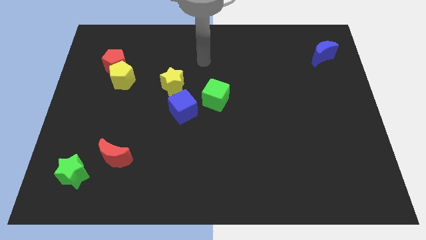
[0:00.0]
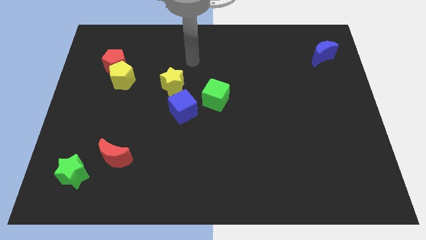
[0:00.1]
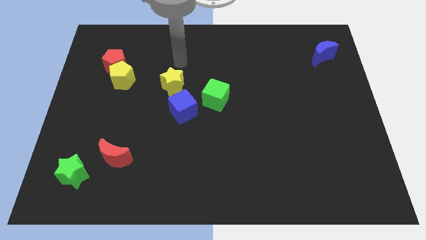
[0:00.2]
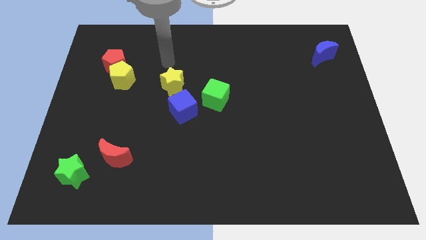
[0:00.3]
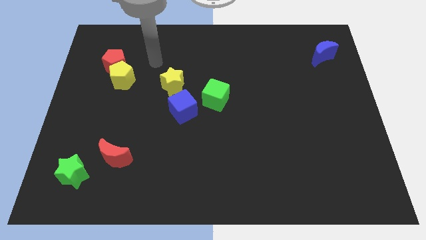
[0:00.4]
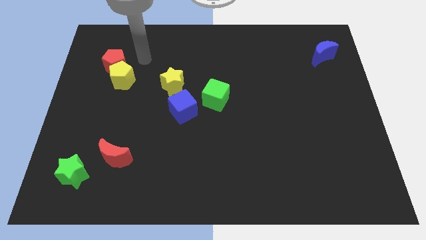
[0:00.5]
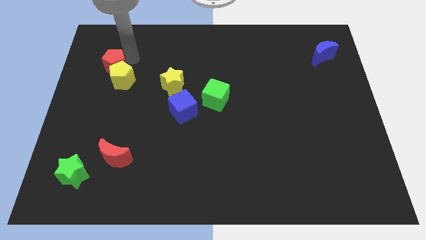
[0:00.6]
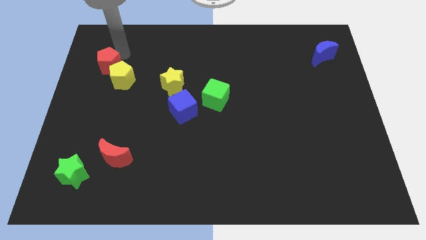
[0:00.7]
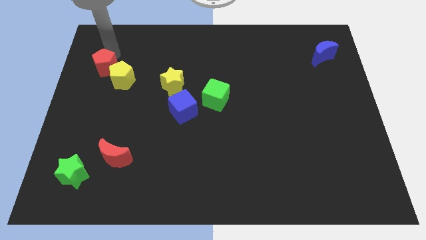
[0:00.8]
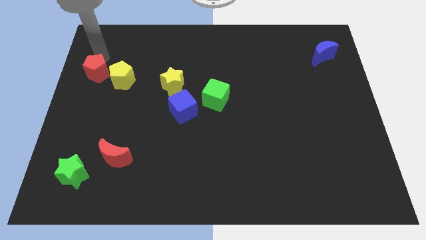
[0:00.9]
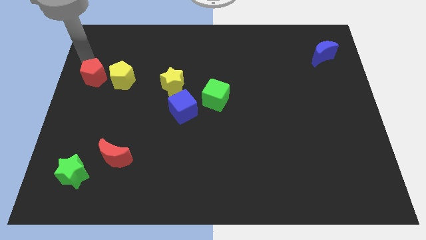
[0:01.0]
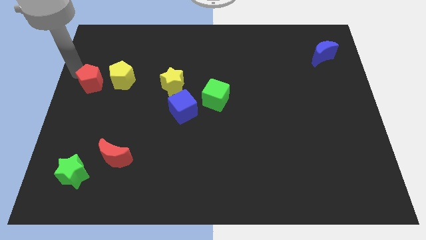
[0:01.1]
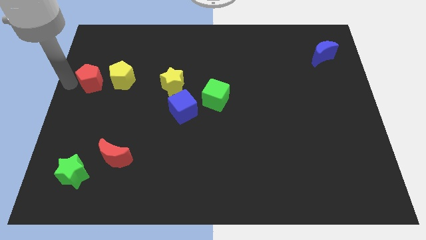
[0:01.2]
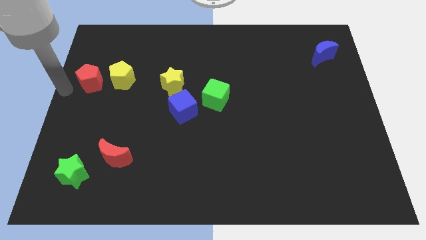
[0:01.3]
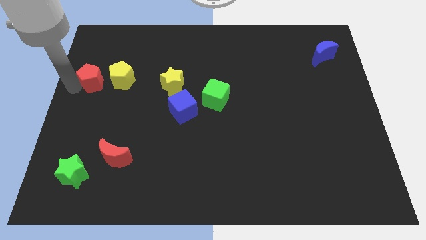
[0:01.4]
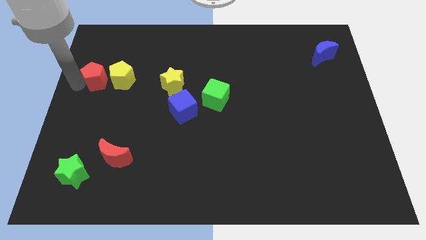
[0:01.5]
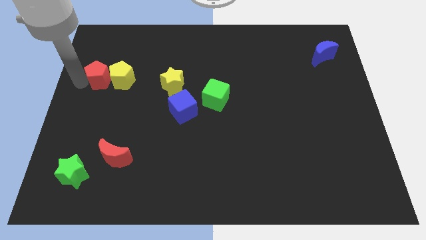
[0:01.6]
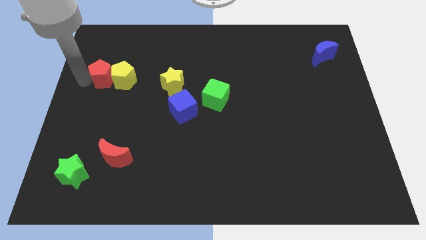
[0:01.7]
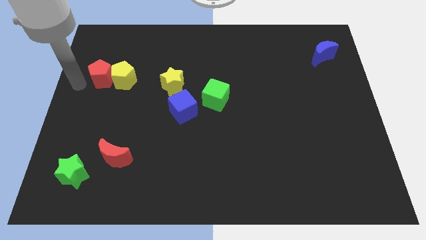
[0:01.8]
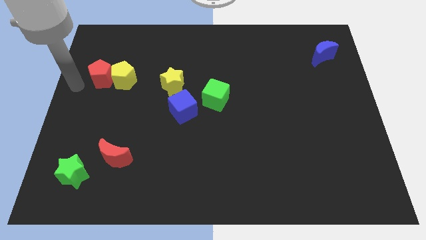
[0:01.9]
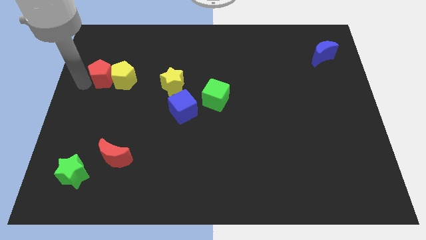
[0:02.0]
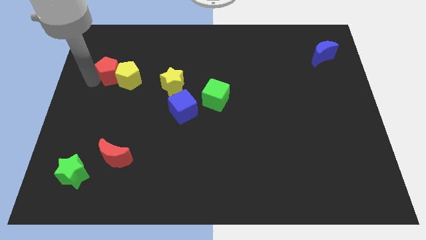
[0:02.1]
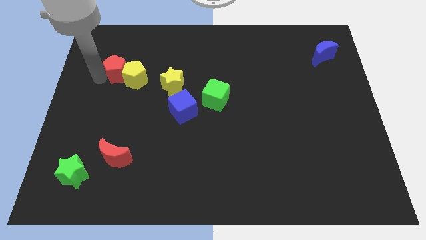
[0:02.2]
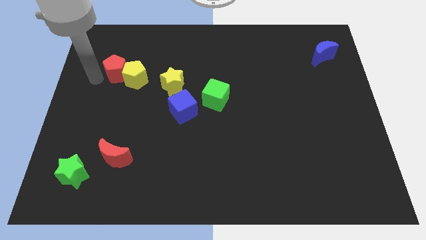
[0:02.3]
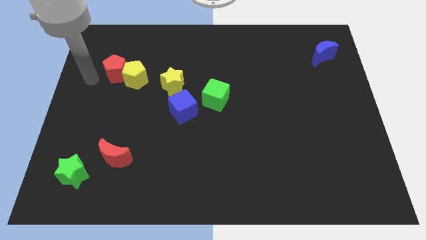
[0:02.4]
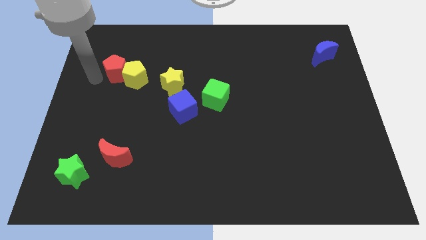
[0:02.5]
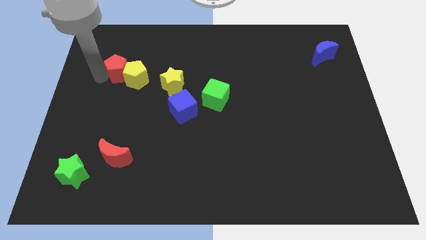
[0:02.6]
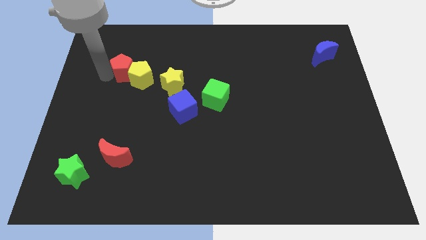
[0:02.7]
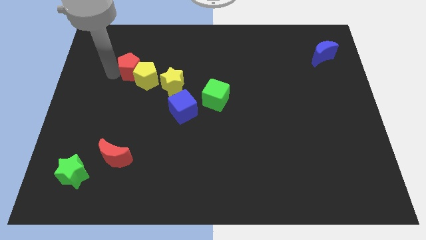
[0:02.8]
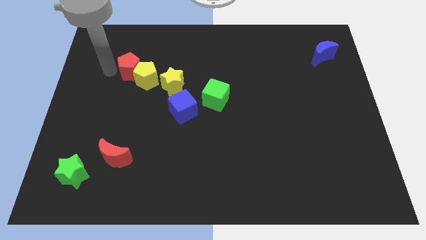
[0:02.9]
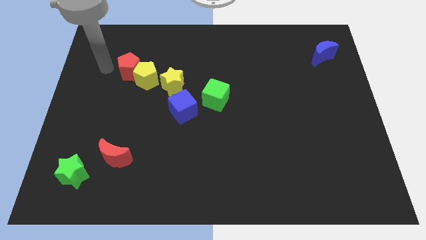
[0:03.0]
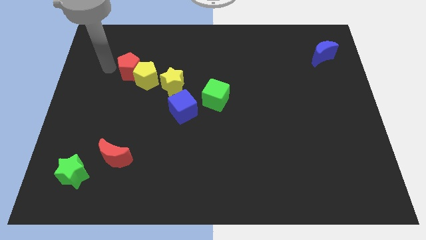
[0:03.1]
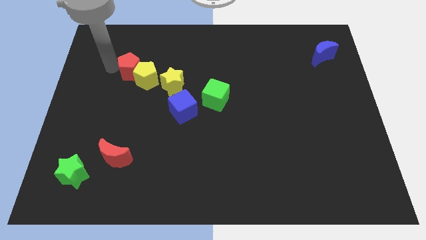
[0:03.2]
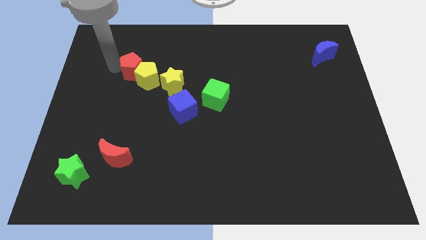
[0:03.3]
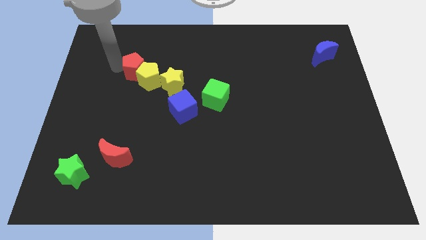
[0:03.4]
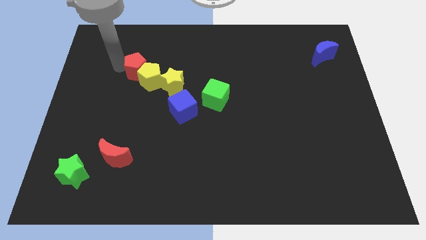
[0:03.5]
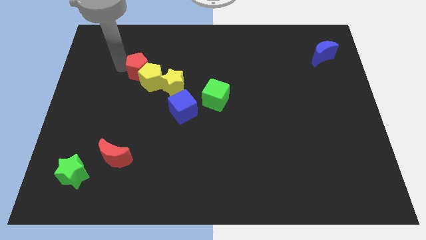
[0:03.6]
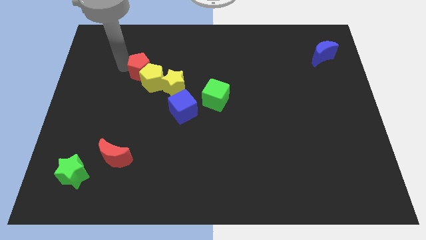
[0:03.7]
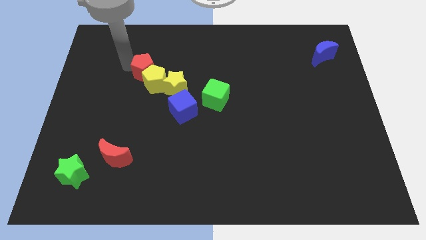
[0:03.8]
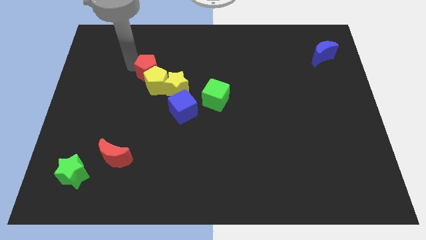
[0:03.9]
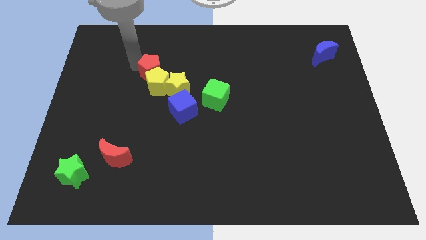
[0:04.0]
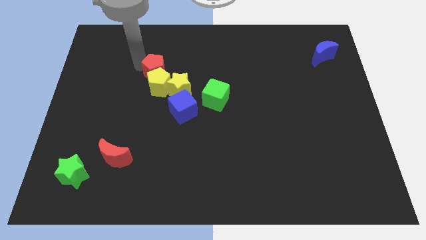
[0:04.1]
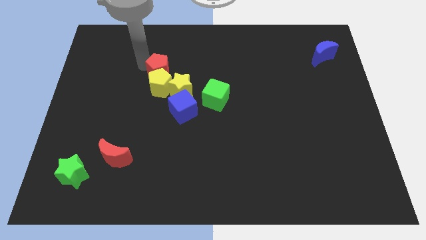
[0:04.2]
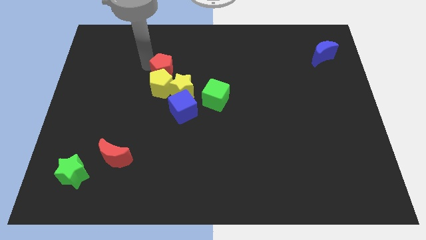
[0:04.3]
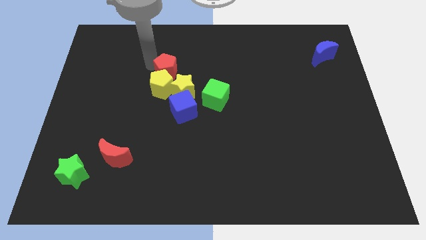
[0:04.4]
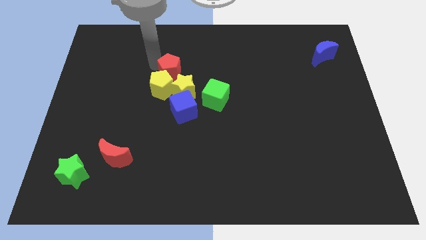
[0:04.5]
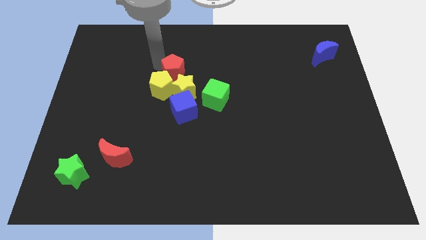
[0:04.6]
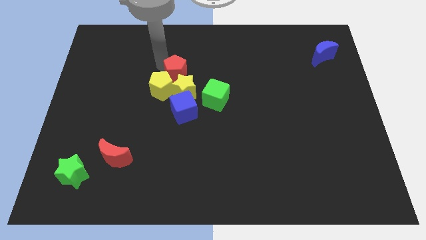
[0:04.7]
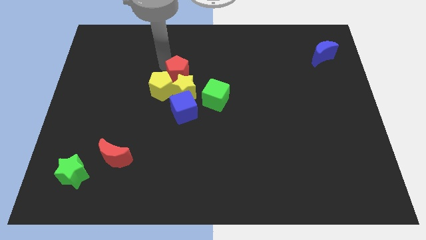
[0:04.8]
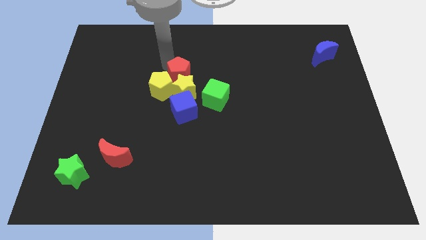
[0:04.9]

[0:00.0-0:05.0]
push the red pentagon next to the yellow star

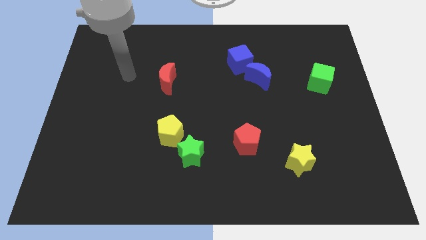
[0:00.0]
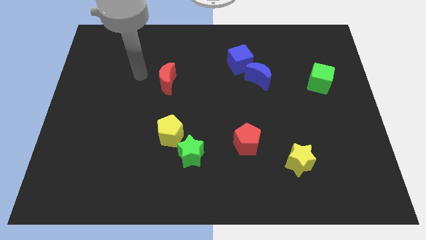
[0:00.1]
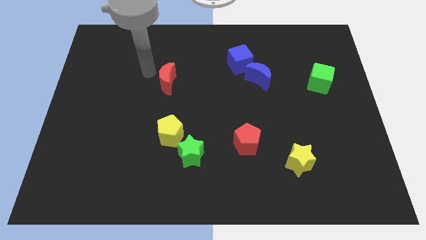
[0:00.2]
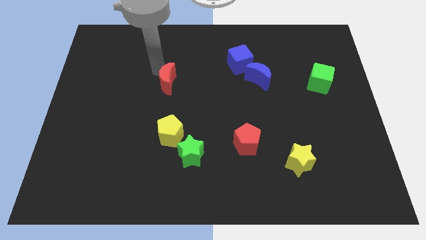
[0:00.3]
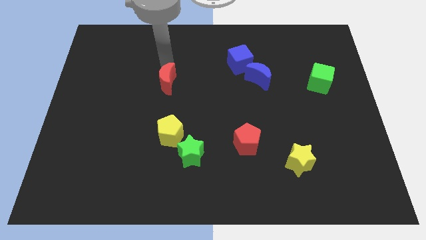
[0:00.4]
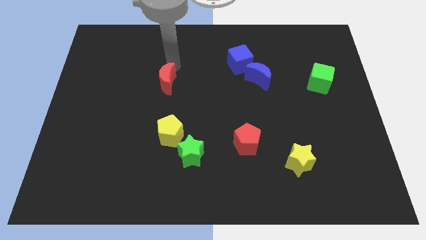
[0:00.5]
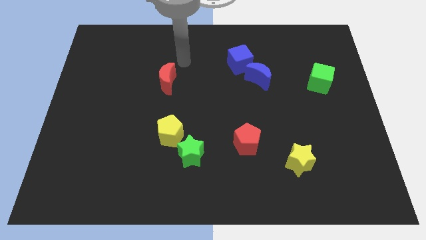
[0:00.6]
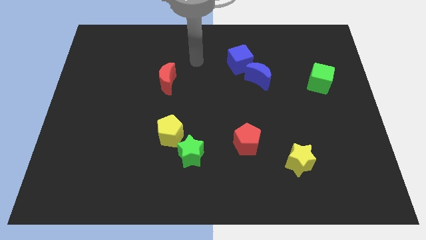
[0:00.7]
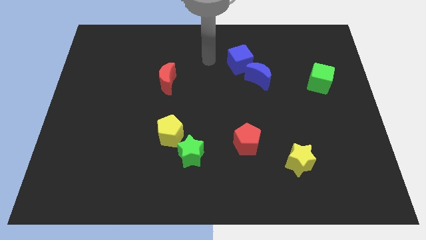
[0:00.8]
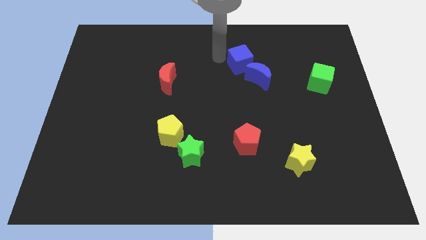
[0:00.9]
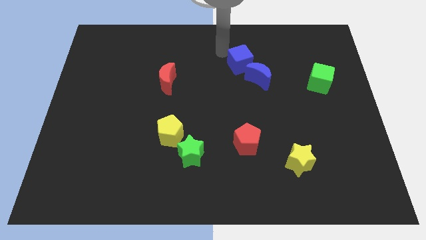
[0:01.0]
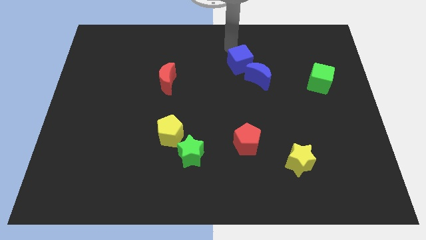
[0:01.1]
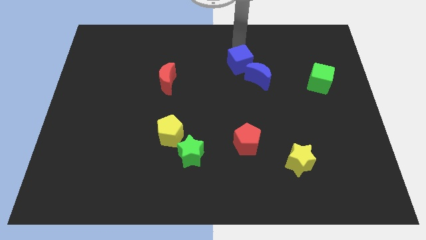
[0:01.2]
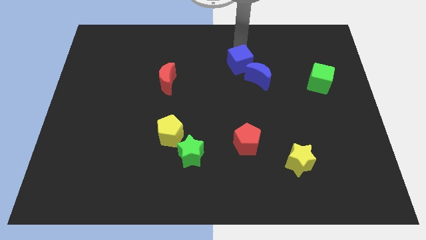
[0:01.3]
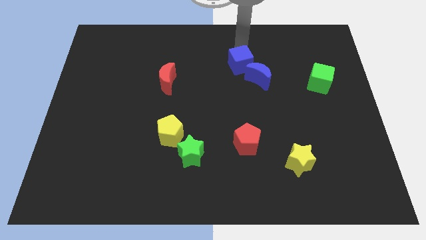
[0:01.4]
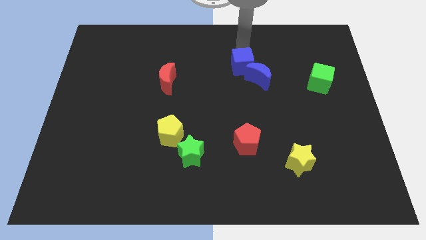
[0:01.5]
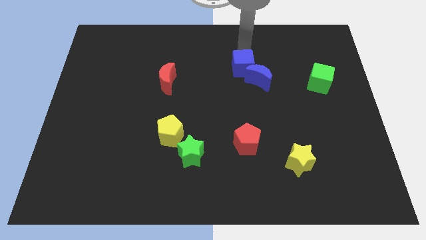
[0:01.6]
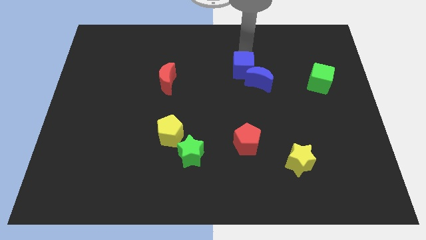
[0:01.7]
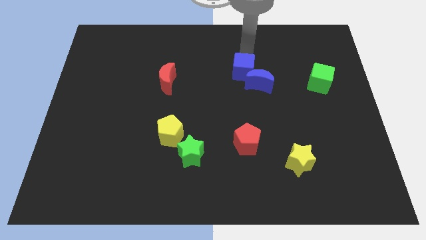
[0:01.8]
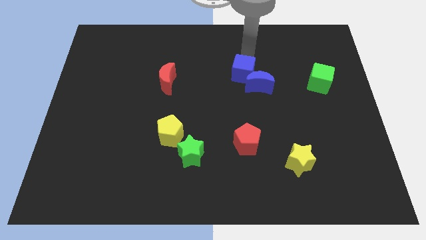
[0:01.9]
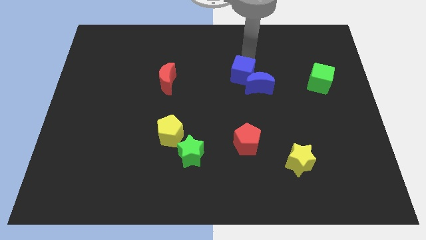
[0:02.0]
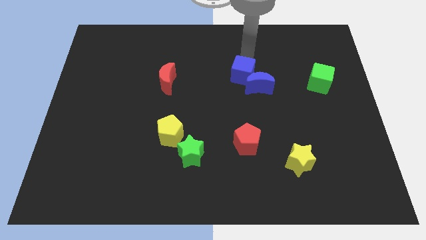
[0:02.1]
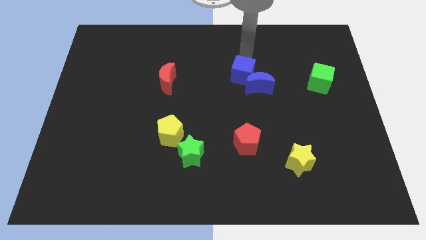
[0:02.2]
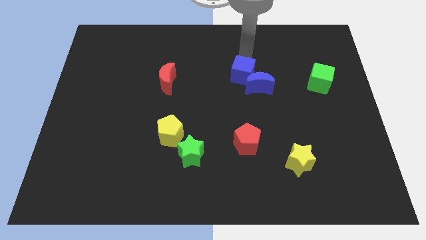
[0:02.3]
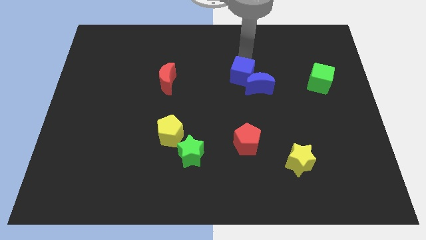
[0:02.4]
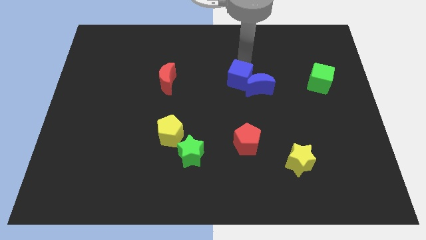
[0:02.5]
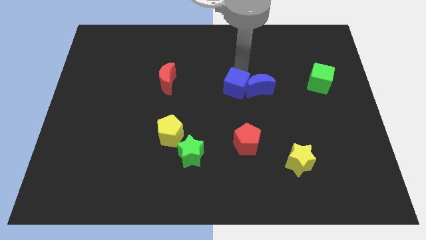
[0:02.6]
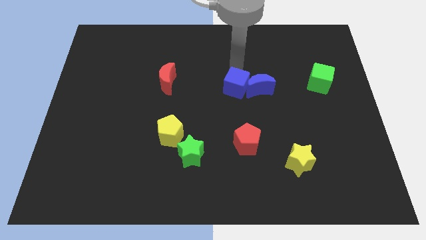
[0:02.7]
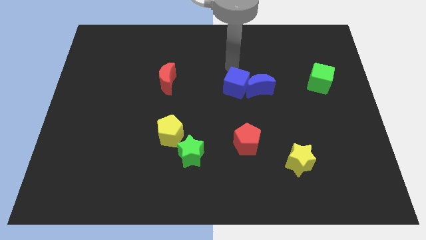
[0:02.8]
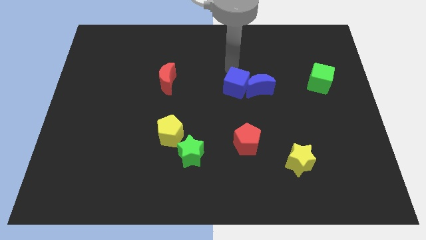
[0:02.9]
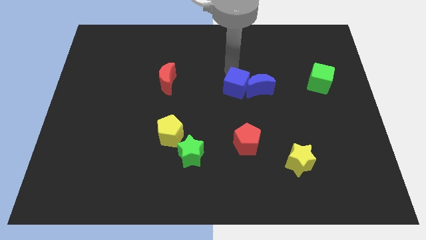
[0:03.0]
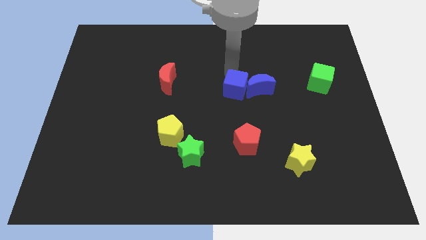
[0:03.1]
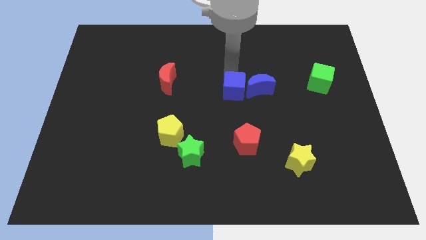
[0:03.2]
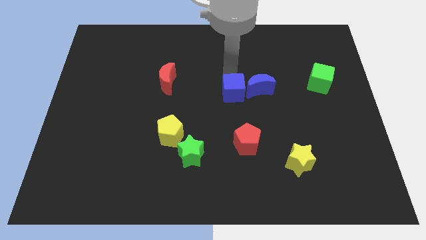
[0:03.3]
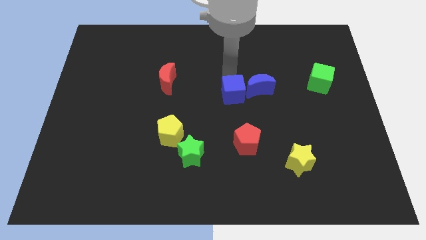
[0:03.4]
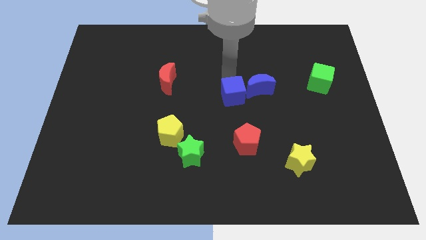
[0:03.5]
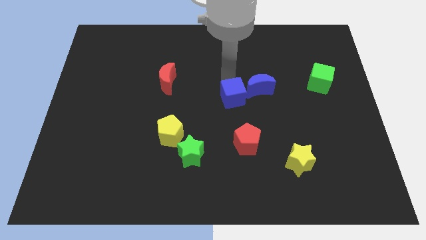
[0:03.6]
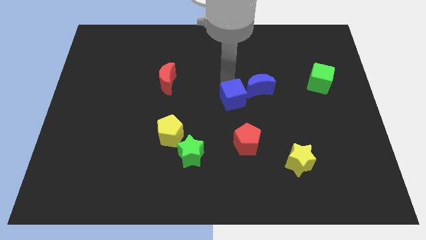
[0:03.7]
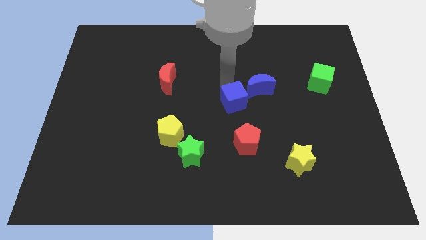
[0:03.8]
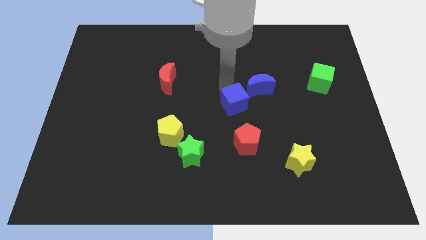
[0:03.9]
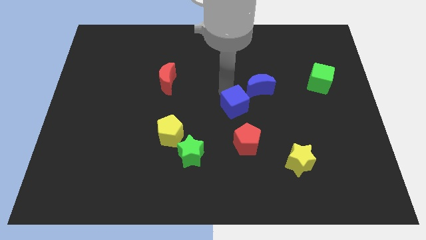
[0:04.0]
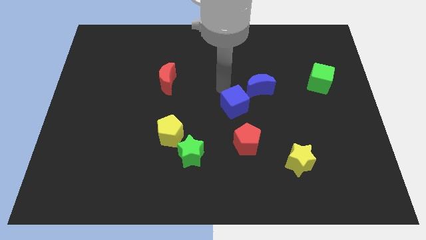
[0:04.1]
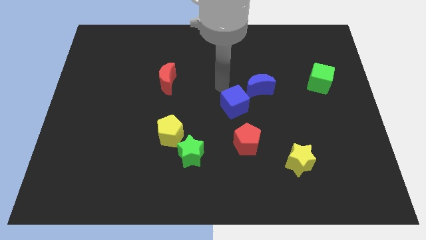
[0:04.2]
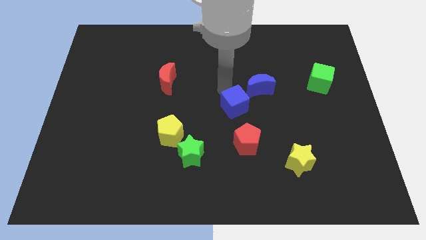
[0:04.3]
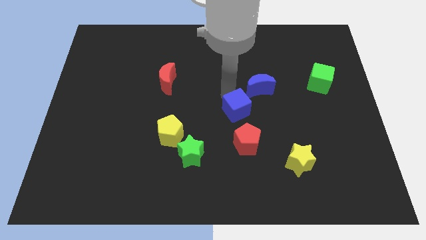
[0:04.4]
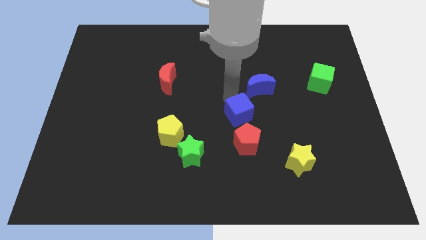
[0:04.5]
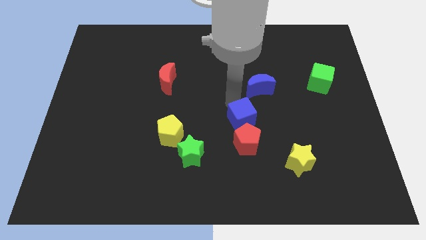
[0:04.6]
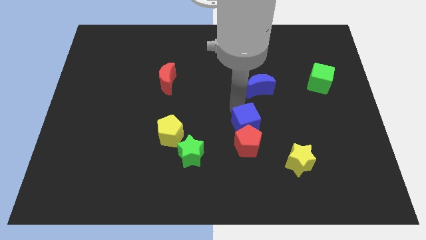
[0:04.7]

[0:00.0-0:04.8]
move the blue cube next to the red pentagon
